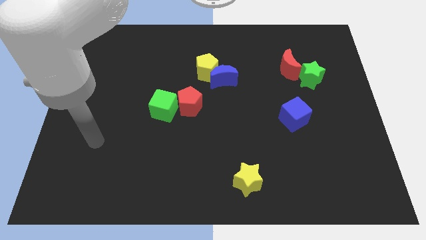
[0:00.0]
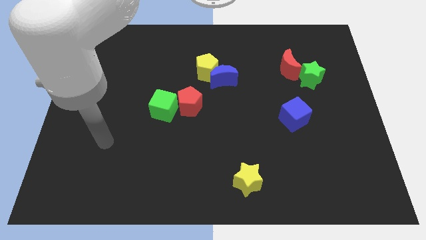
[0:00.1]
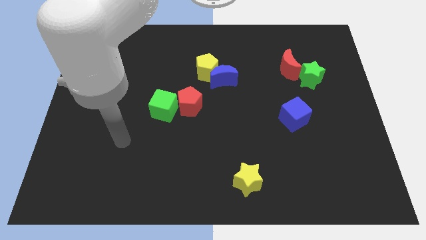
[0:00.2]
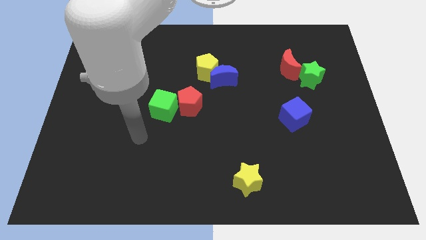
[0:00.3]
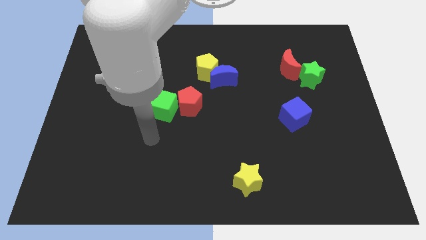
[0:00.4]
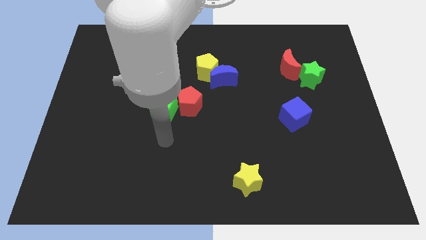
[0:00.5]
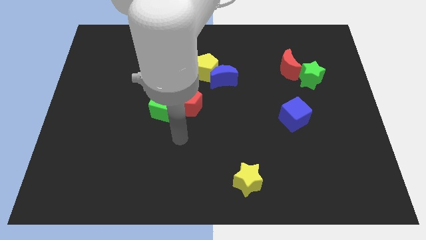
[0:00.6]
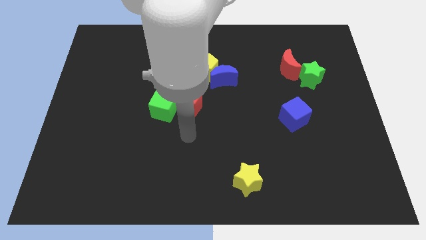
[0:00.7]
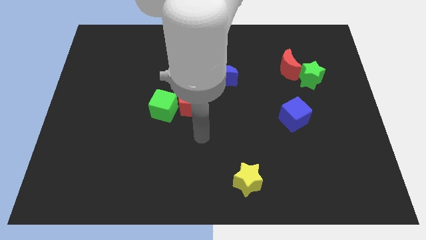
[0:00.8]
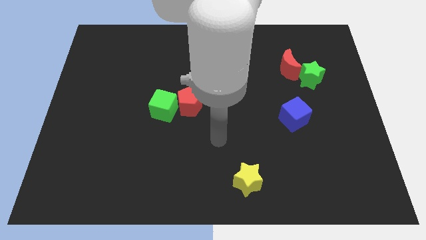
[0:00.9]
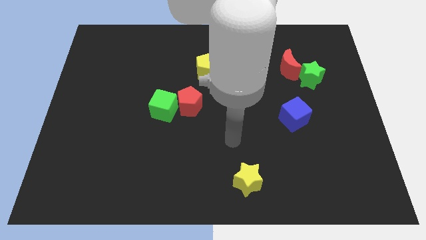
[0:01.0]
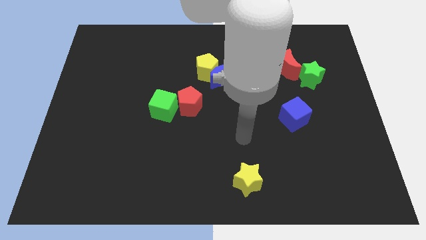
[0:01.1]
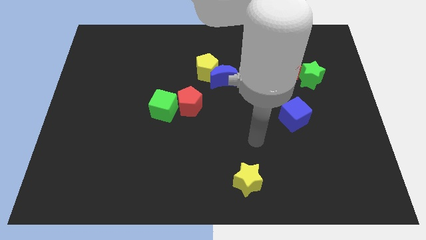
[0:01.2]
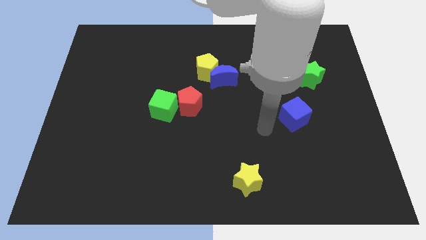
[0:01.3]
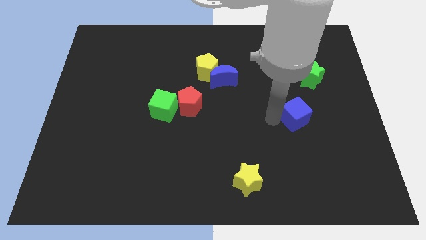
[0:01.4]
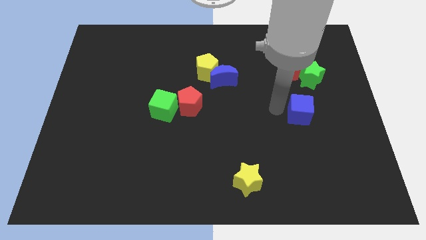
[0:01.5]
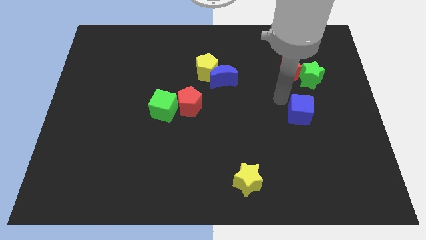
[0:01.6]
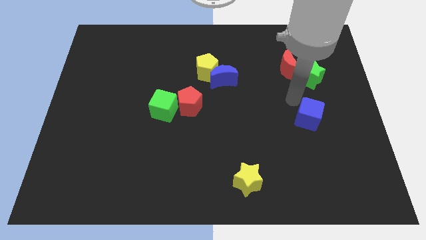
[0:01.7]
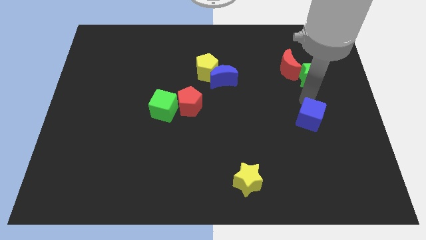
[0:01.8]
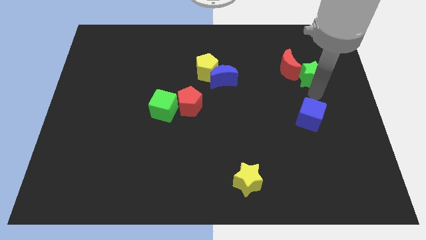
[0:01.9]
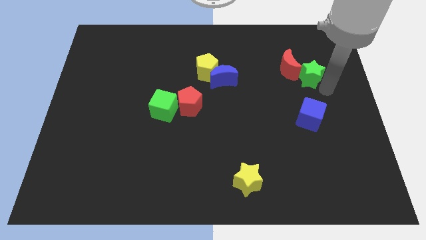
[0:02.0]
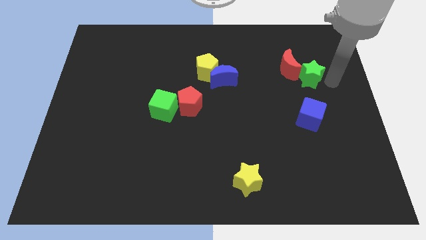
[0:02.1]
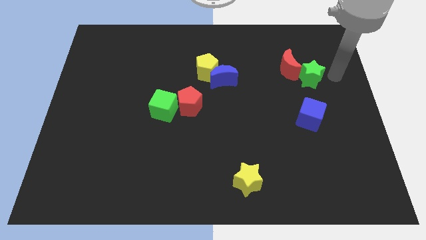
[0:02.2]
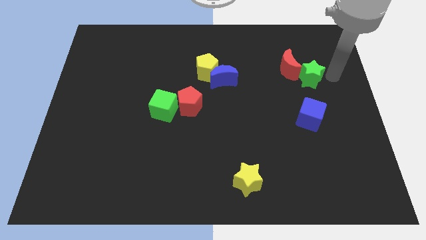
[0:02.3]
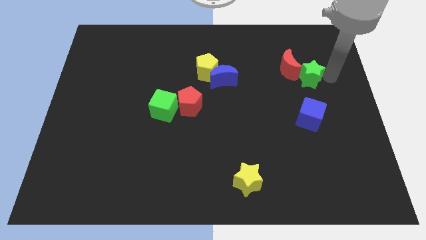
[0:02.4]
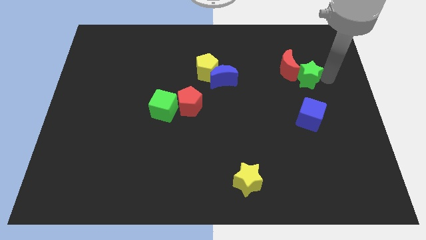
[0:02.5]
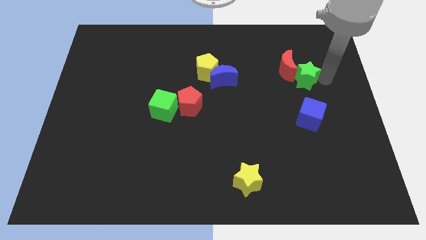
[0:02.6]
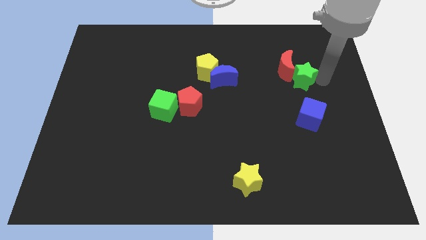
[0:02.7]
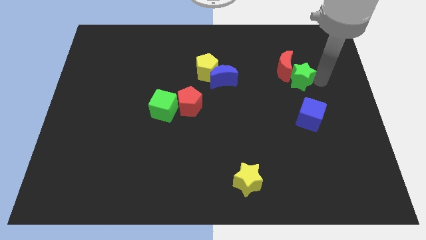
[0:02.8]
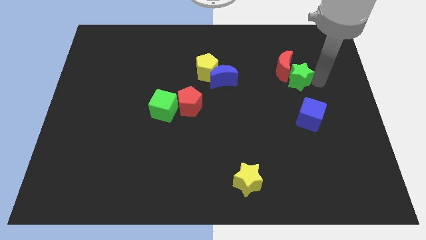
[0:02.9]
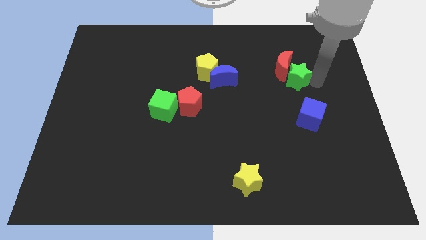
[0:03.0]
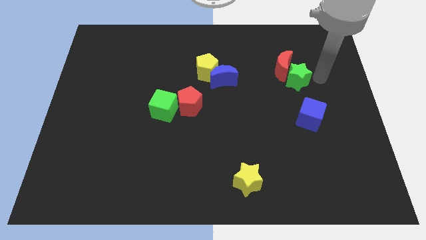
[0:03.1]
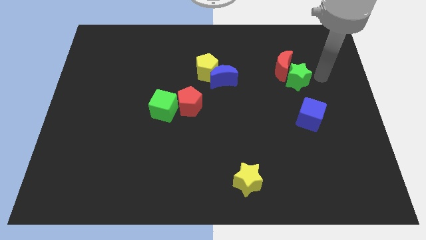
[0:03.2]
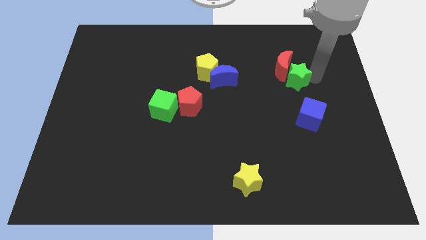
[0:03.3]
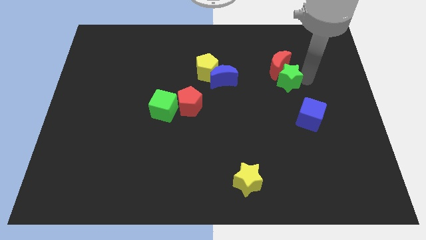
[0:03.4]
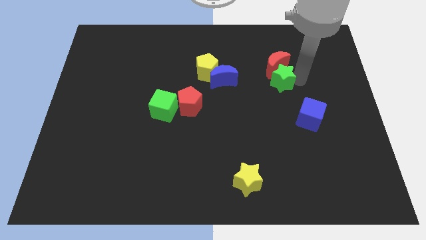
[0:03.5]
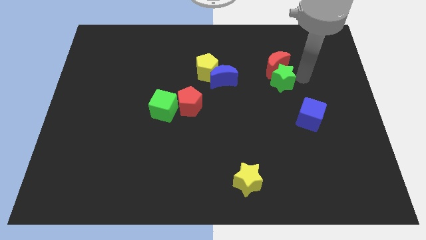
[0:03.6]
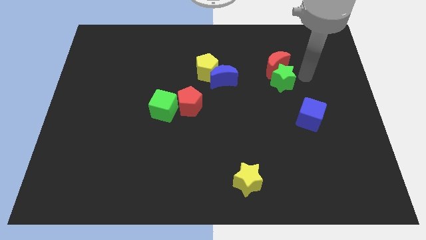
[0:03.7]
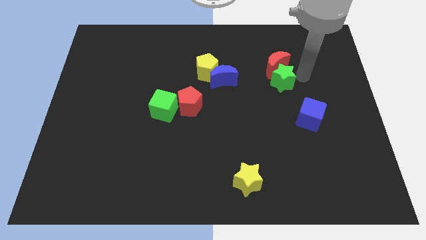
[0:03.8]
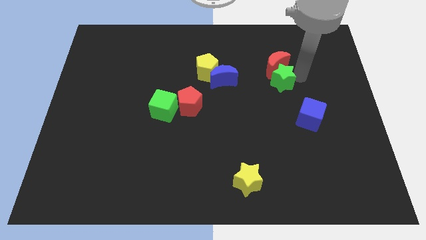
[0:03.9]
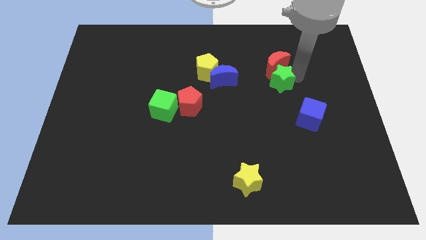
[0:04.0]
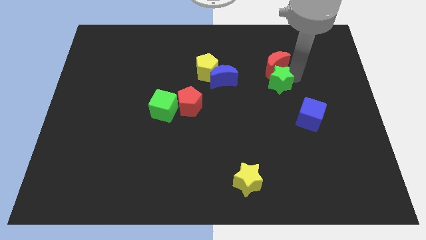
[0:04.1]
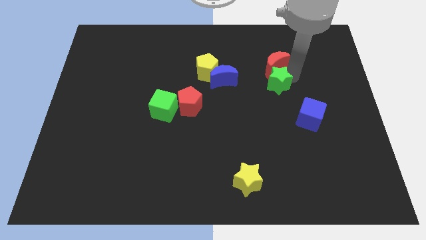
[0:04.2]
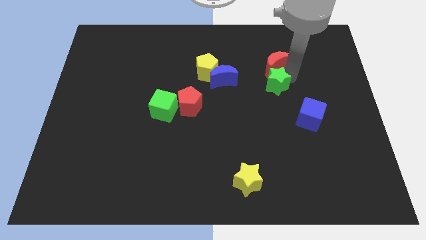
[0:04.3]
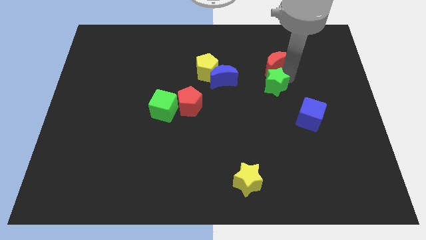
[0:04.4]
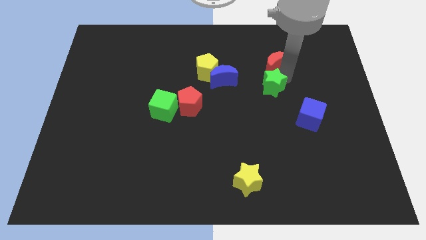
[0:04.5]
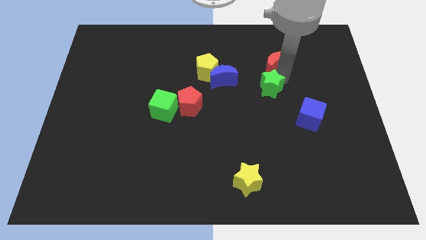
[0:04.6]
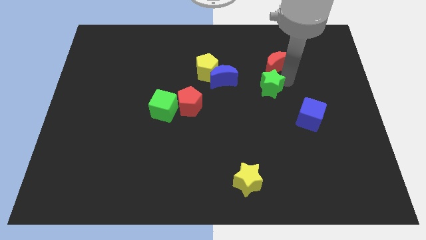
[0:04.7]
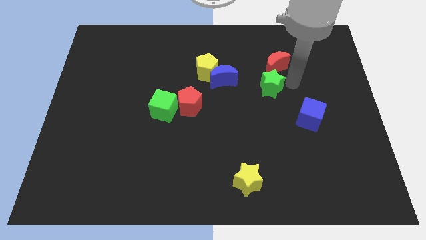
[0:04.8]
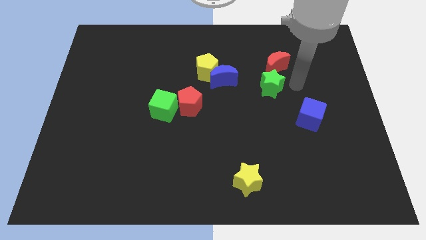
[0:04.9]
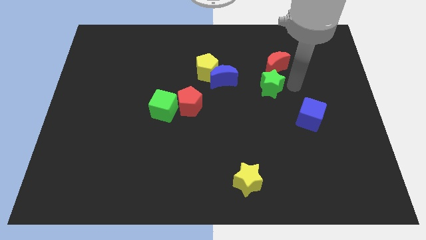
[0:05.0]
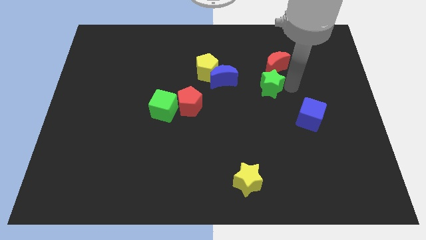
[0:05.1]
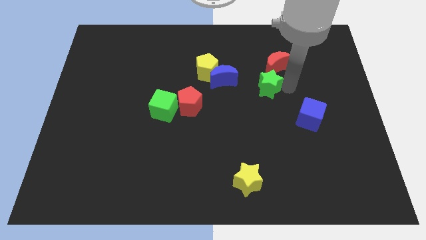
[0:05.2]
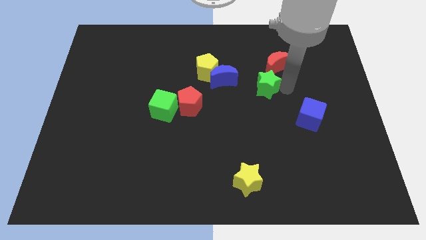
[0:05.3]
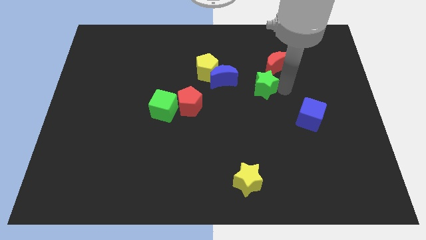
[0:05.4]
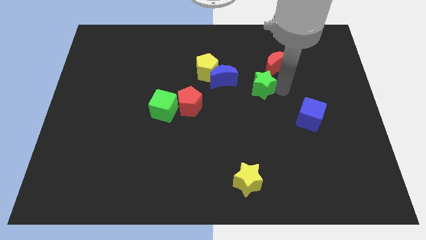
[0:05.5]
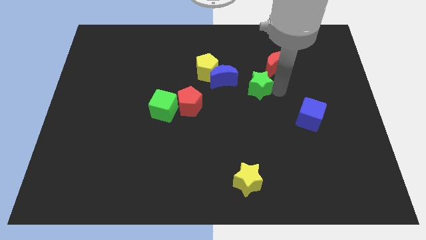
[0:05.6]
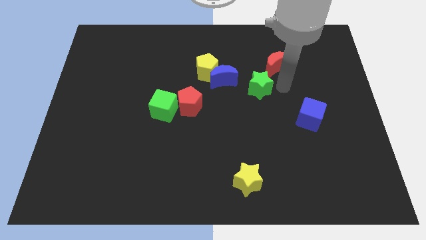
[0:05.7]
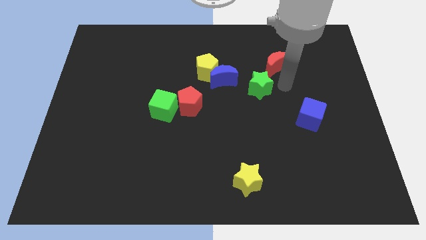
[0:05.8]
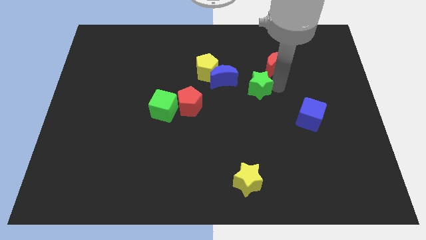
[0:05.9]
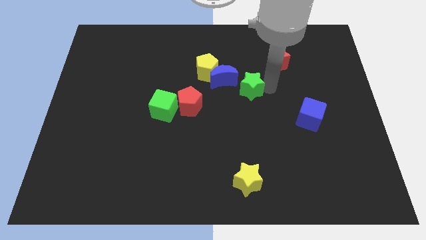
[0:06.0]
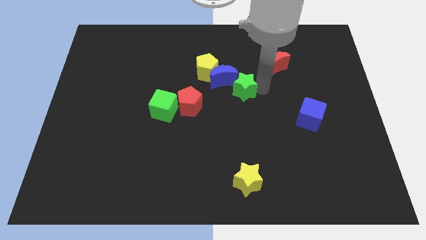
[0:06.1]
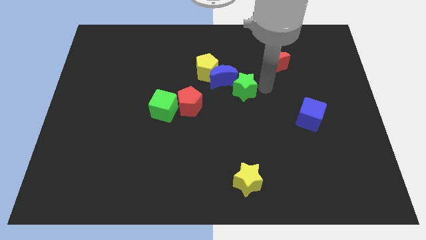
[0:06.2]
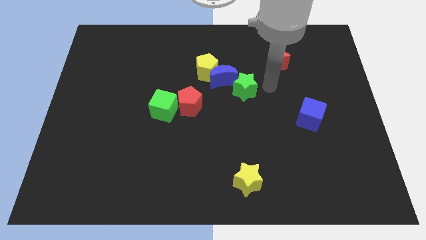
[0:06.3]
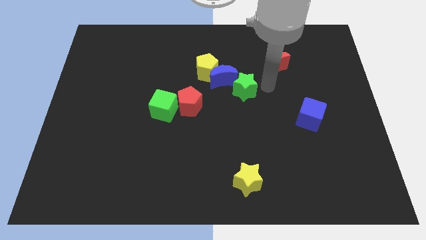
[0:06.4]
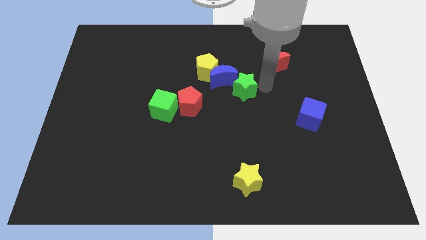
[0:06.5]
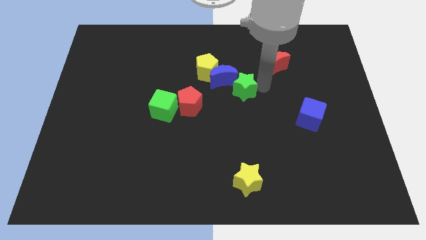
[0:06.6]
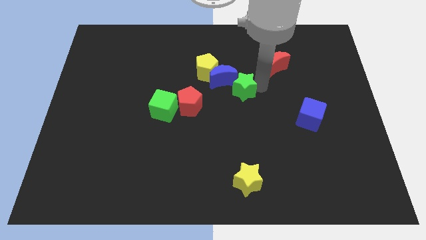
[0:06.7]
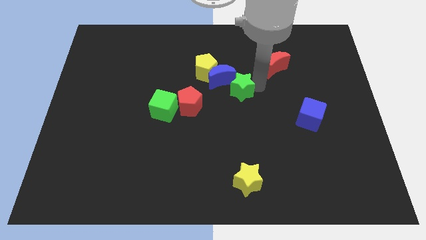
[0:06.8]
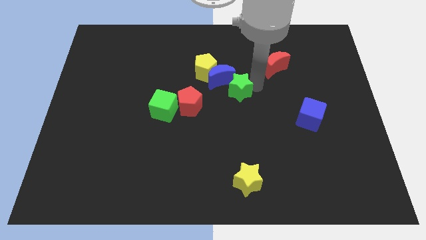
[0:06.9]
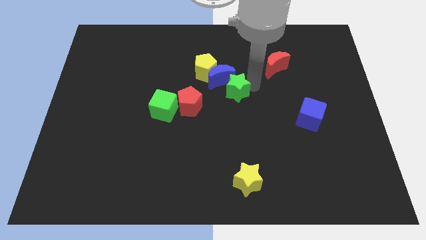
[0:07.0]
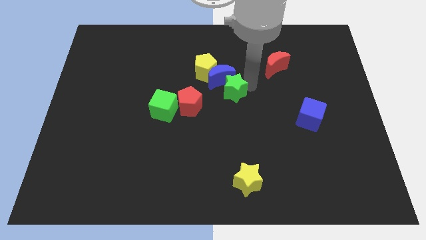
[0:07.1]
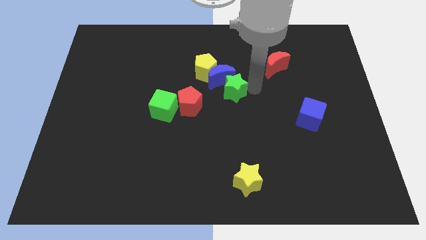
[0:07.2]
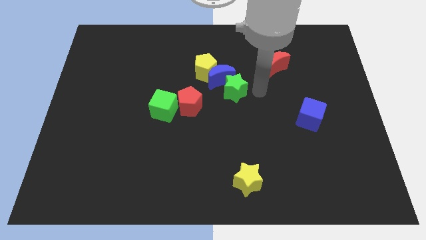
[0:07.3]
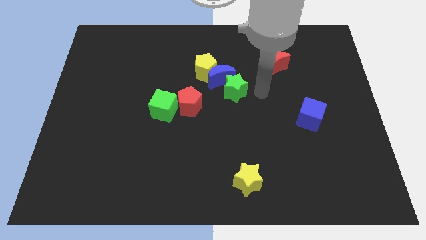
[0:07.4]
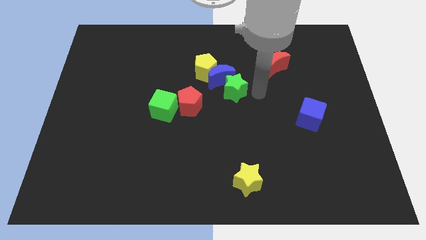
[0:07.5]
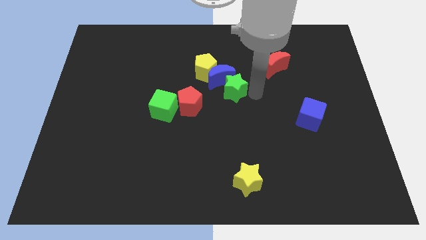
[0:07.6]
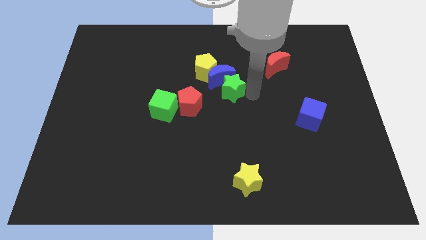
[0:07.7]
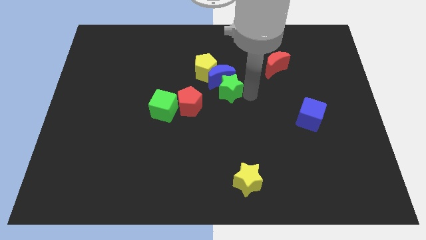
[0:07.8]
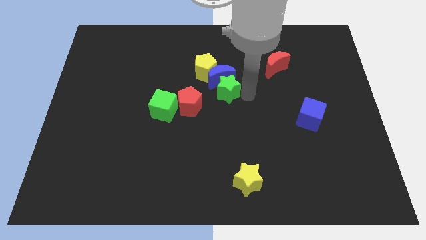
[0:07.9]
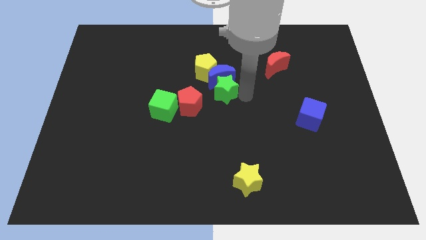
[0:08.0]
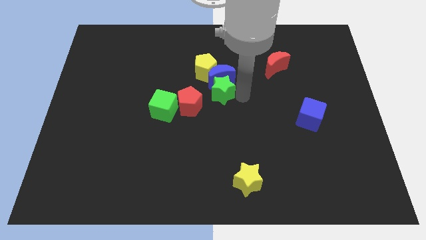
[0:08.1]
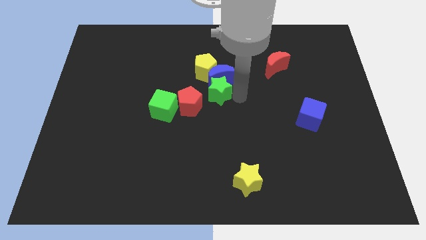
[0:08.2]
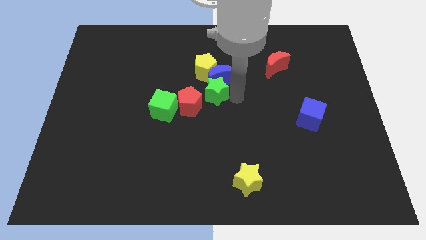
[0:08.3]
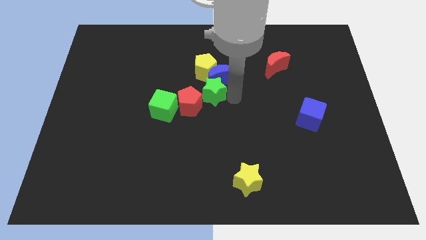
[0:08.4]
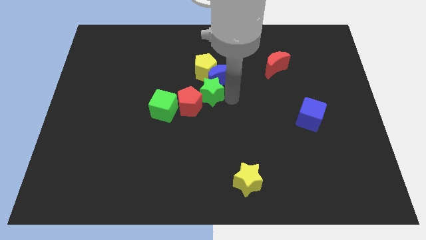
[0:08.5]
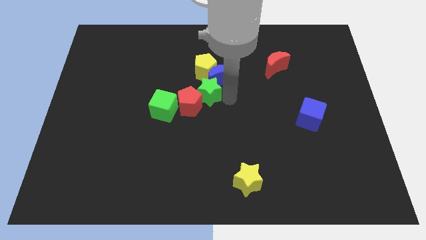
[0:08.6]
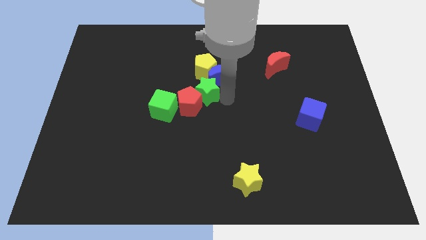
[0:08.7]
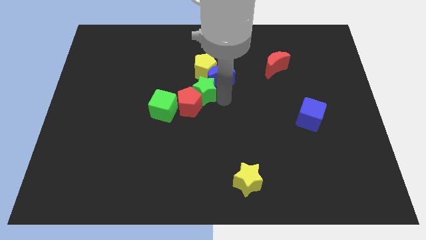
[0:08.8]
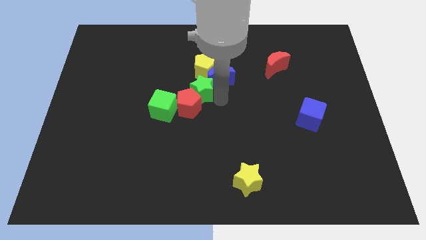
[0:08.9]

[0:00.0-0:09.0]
push the green star diagonally down and to the left of the yellow pentagon
